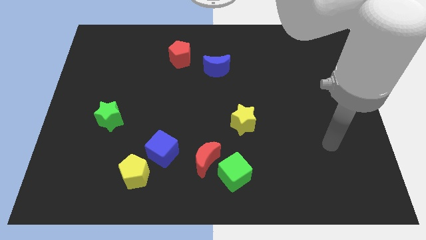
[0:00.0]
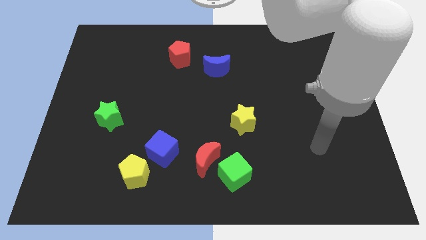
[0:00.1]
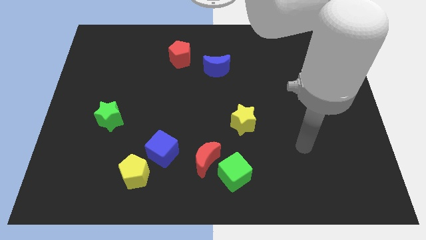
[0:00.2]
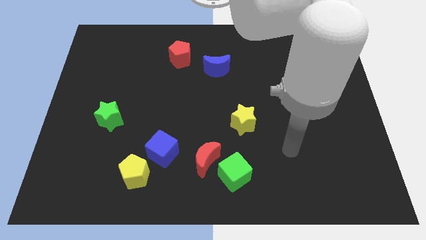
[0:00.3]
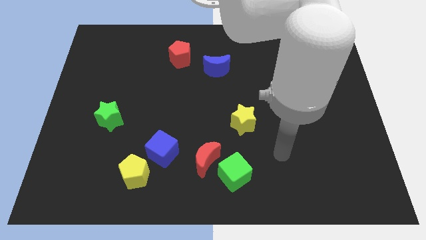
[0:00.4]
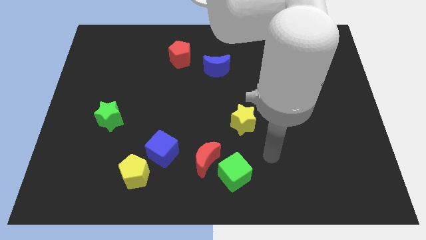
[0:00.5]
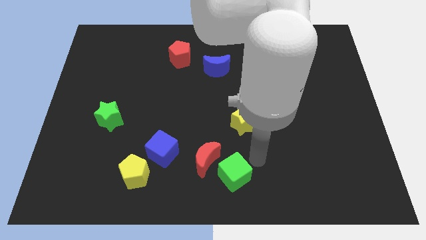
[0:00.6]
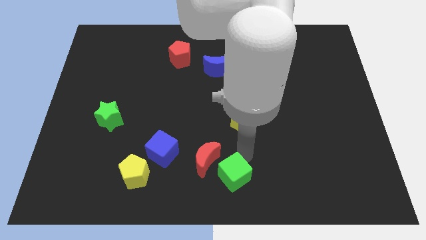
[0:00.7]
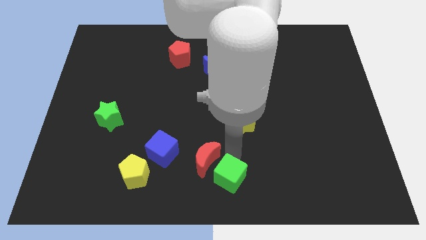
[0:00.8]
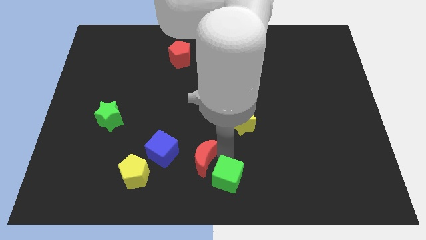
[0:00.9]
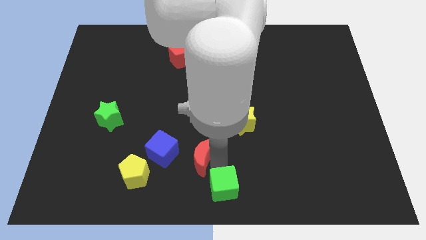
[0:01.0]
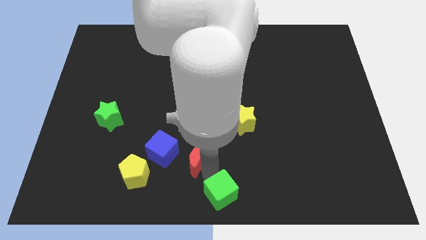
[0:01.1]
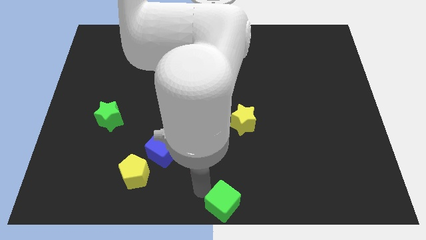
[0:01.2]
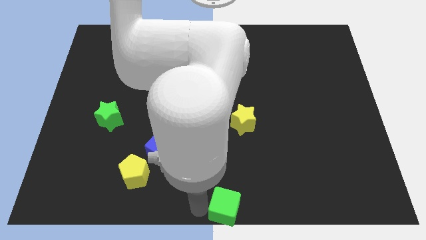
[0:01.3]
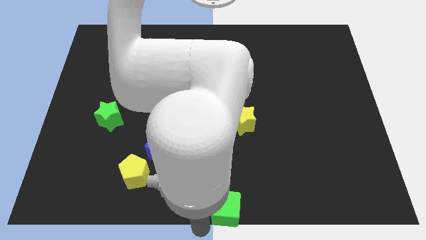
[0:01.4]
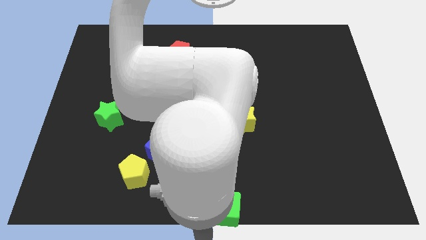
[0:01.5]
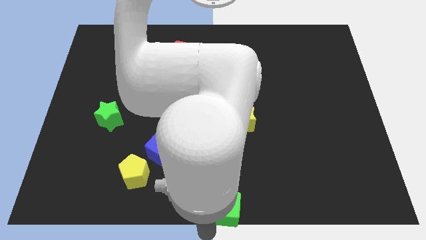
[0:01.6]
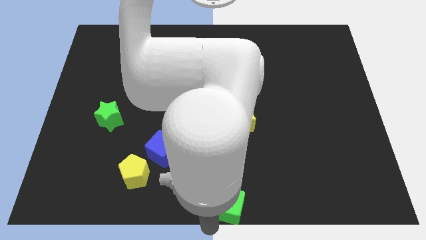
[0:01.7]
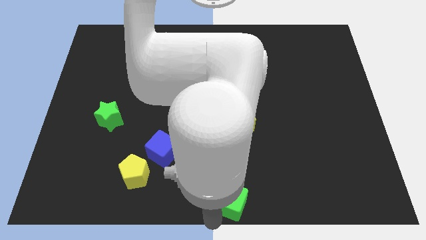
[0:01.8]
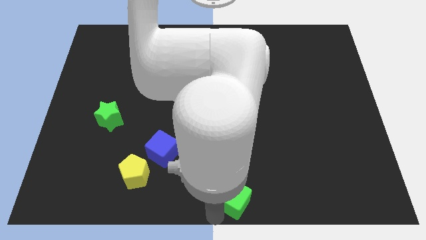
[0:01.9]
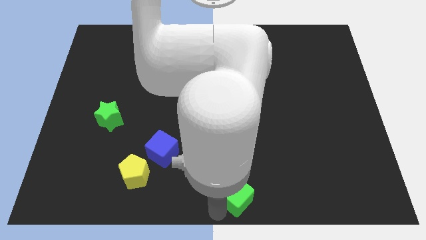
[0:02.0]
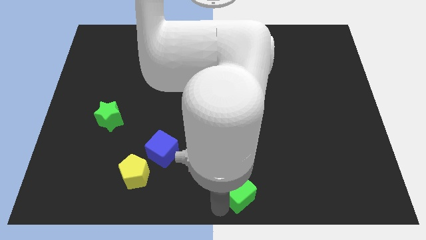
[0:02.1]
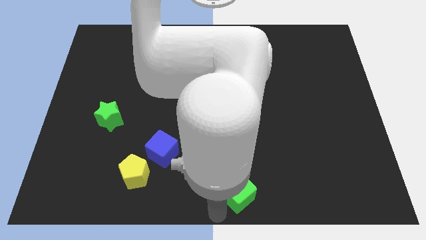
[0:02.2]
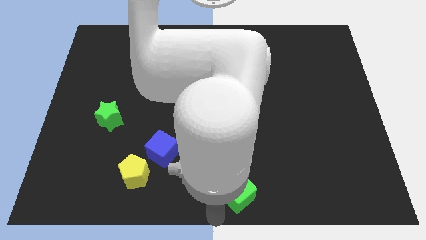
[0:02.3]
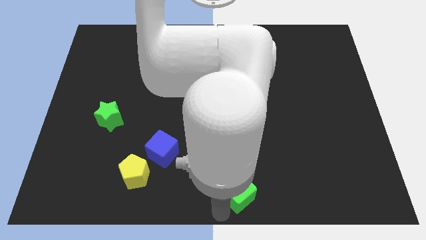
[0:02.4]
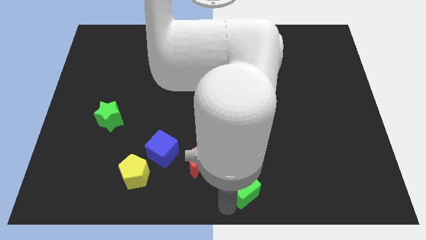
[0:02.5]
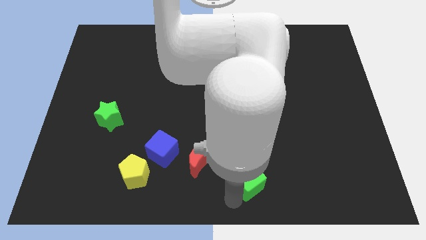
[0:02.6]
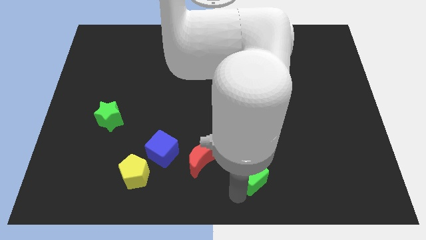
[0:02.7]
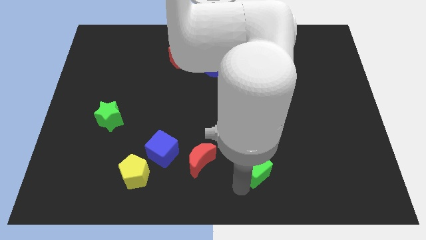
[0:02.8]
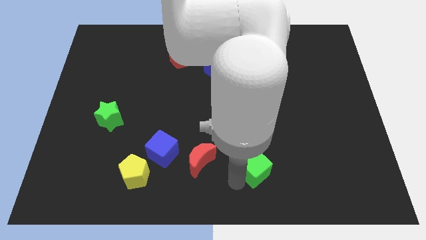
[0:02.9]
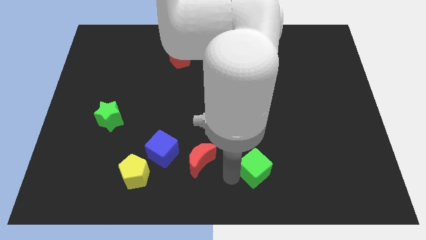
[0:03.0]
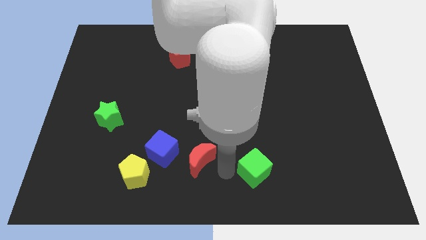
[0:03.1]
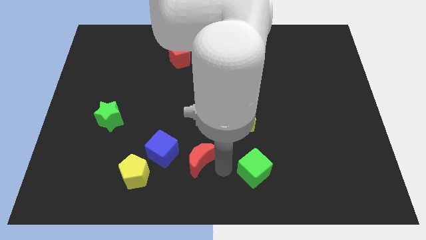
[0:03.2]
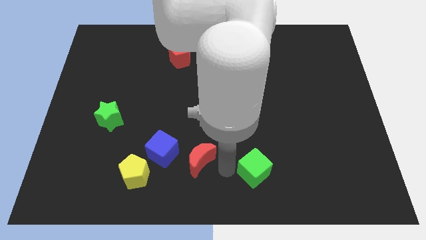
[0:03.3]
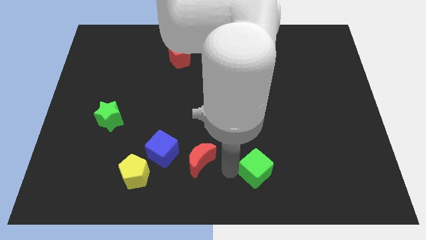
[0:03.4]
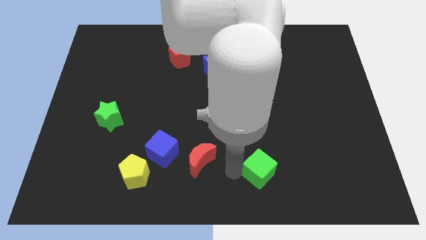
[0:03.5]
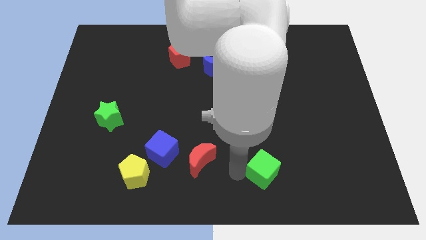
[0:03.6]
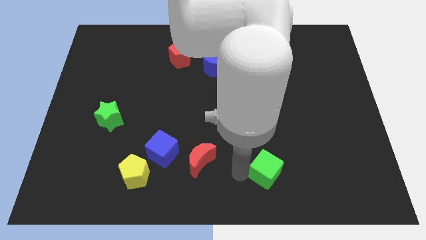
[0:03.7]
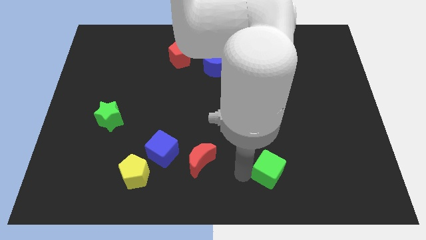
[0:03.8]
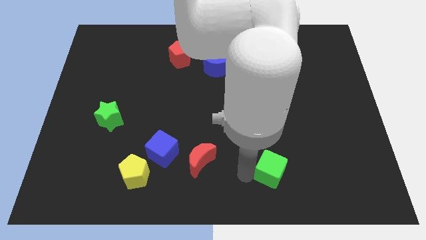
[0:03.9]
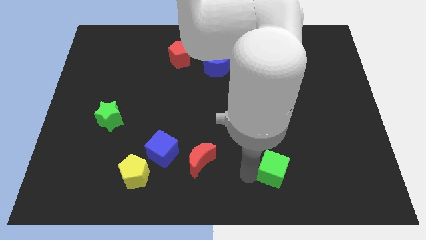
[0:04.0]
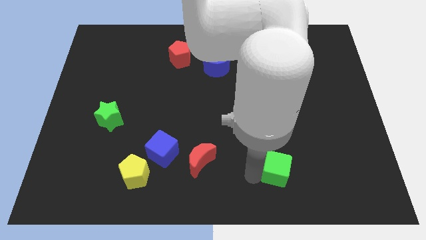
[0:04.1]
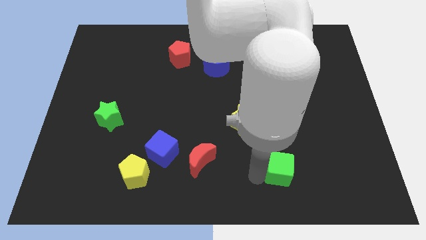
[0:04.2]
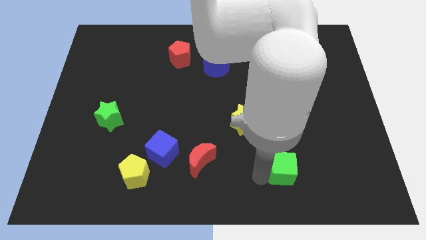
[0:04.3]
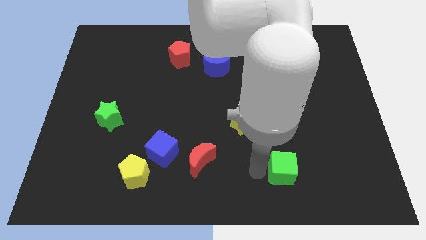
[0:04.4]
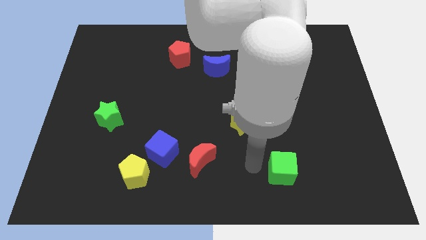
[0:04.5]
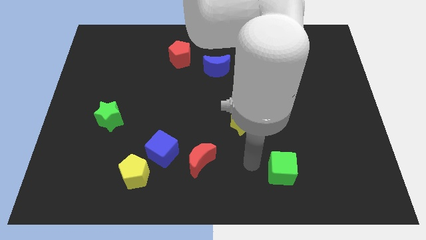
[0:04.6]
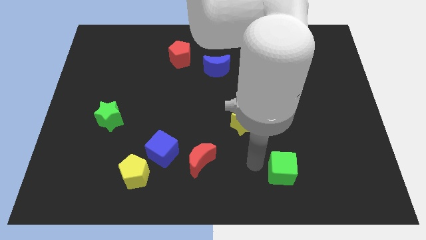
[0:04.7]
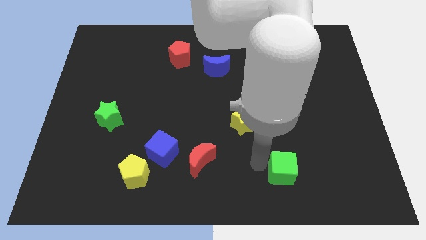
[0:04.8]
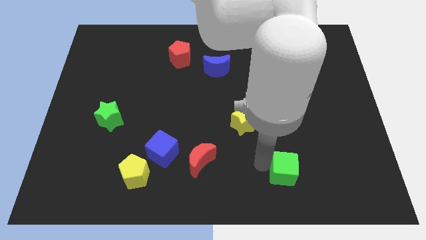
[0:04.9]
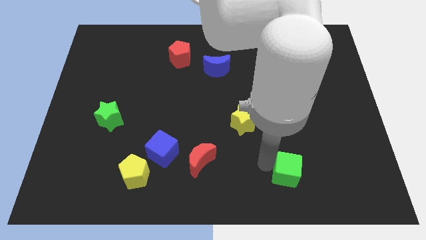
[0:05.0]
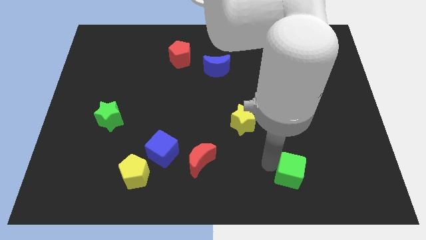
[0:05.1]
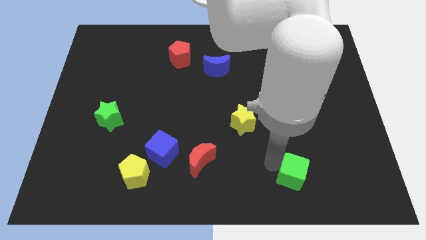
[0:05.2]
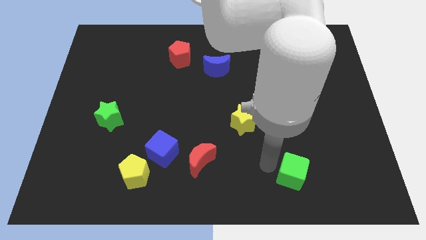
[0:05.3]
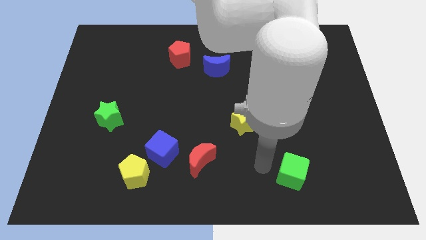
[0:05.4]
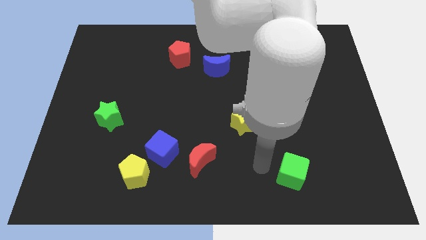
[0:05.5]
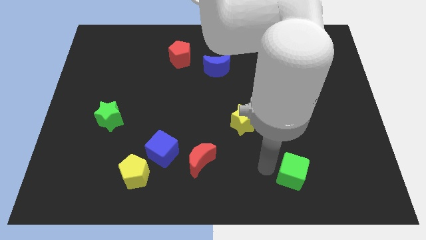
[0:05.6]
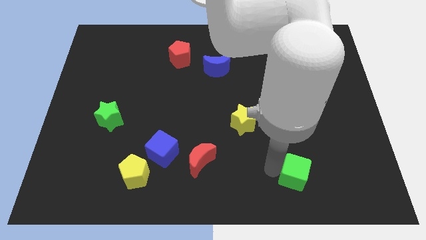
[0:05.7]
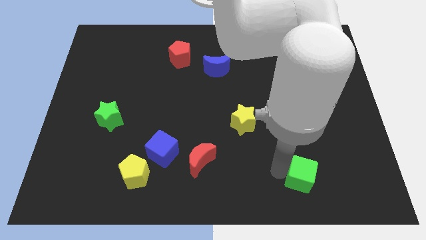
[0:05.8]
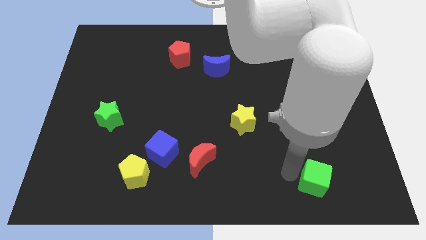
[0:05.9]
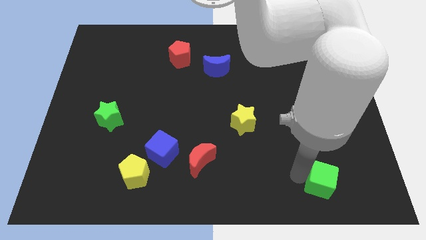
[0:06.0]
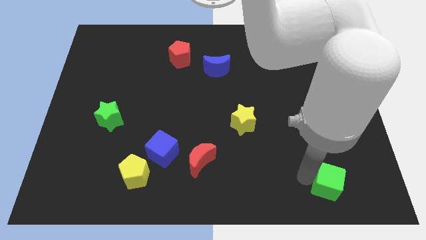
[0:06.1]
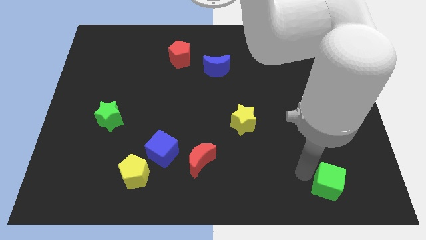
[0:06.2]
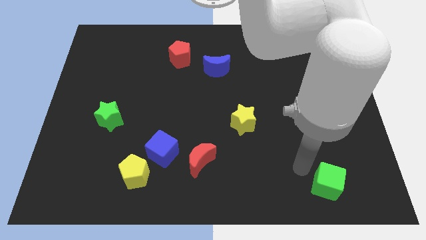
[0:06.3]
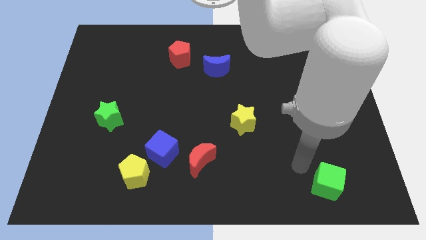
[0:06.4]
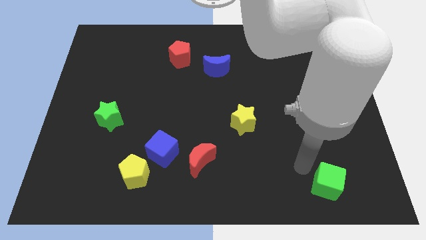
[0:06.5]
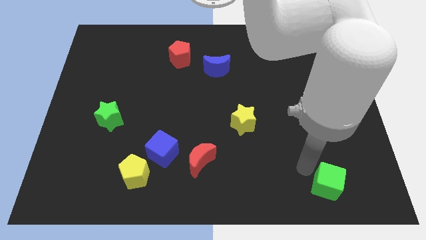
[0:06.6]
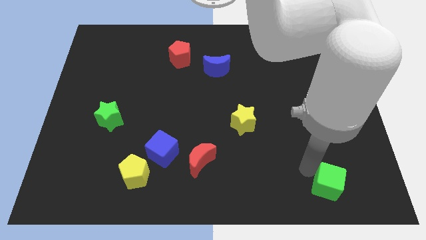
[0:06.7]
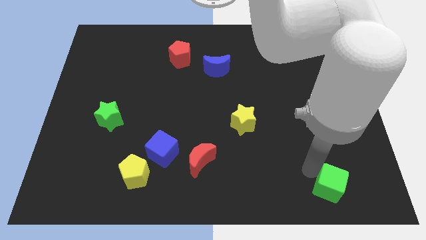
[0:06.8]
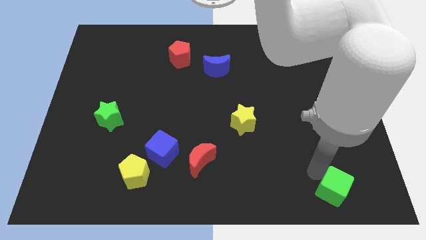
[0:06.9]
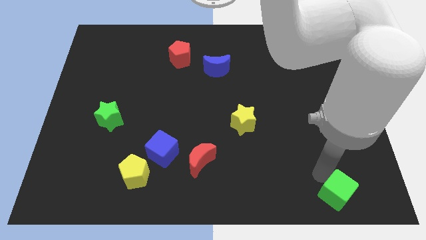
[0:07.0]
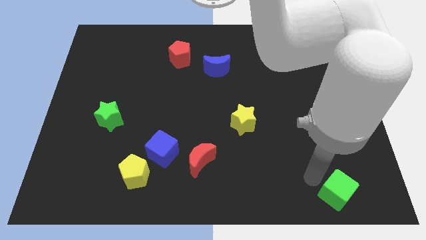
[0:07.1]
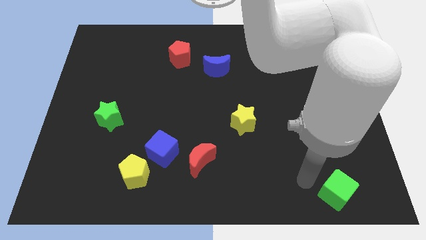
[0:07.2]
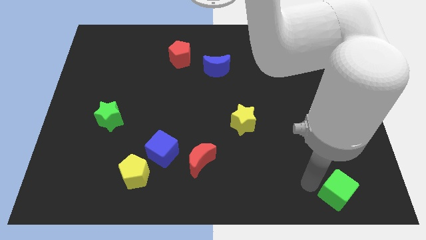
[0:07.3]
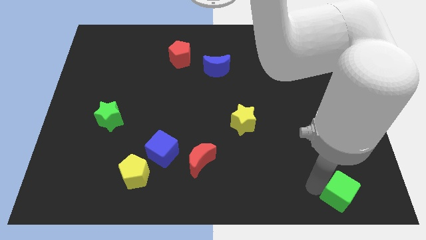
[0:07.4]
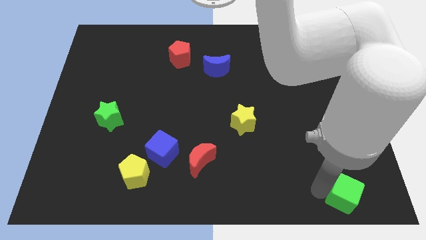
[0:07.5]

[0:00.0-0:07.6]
put the green cube to the bottom right corner

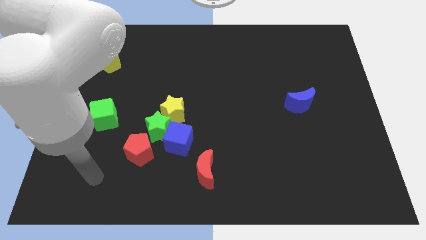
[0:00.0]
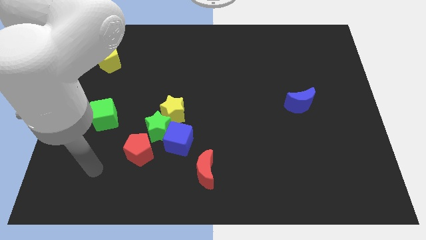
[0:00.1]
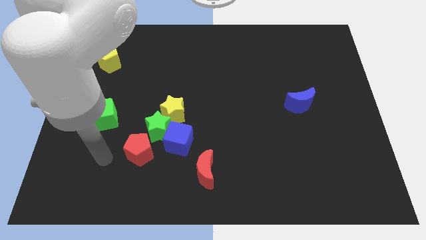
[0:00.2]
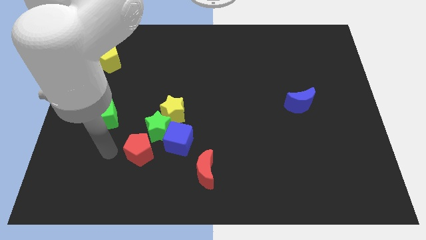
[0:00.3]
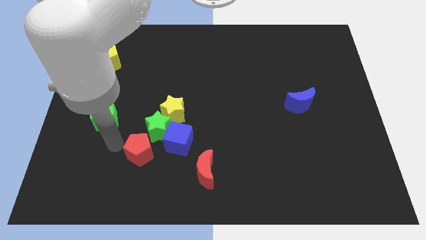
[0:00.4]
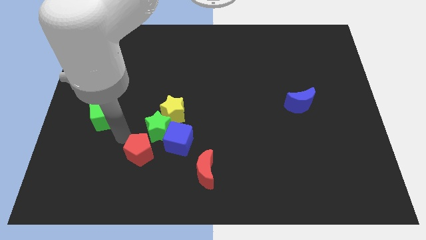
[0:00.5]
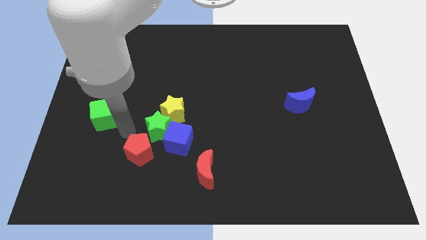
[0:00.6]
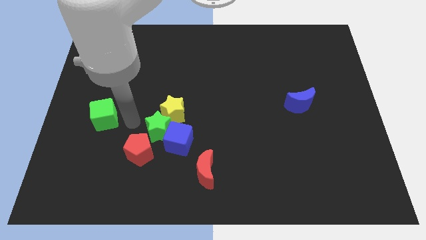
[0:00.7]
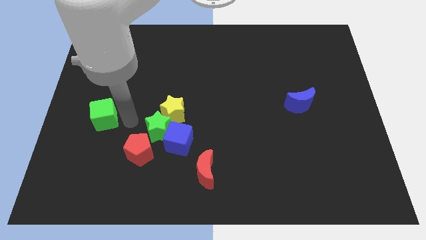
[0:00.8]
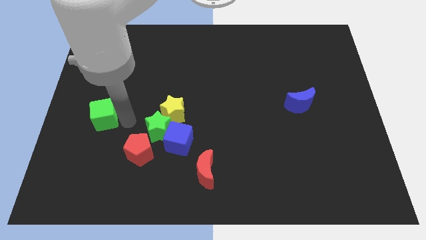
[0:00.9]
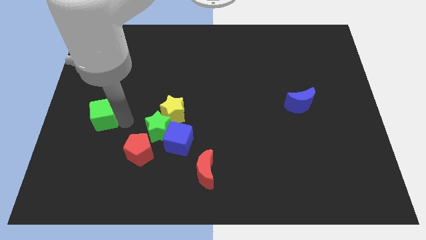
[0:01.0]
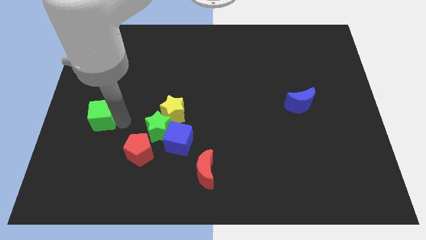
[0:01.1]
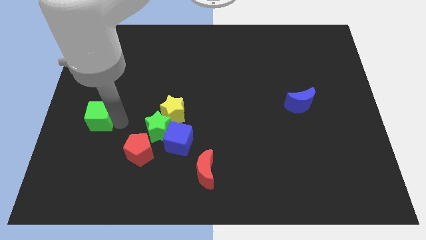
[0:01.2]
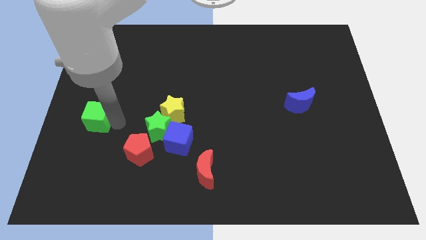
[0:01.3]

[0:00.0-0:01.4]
slide the green cube to the center left
